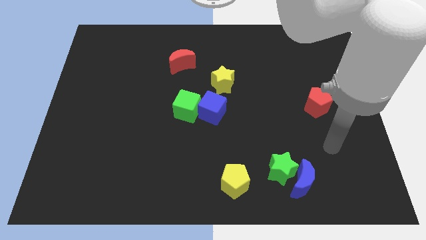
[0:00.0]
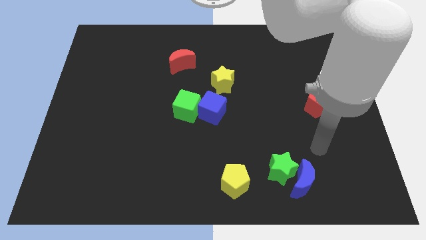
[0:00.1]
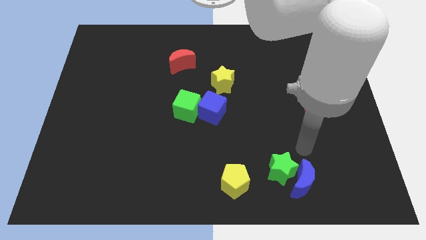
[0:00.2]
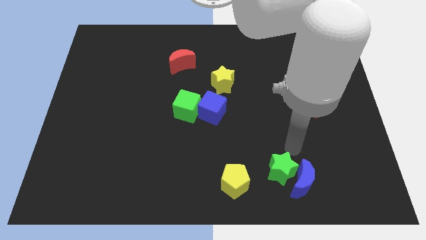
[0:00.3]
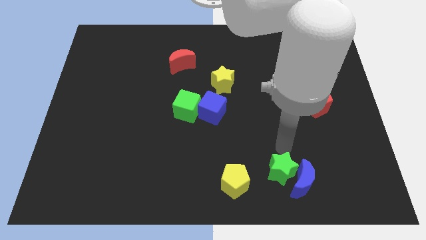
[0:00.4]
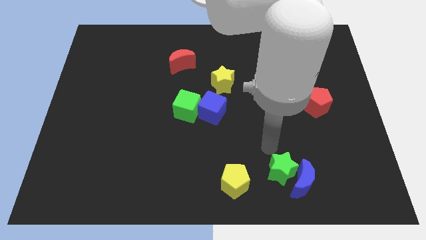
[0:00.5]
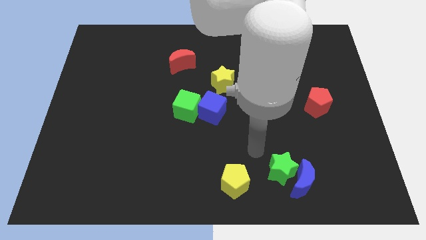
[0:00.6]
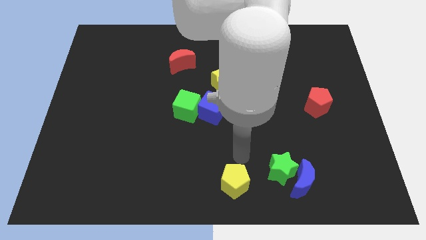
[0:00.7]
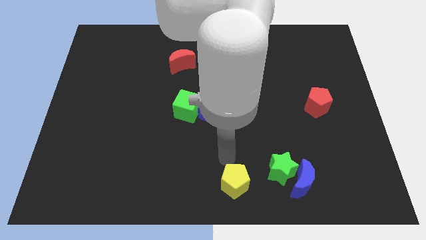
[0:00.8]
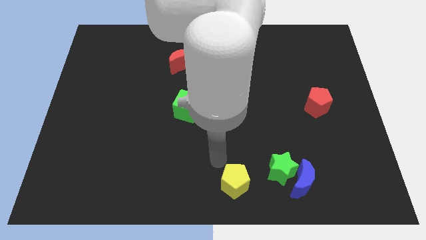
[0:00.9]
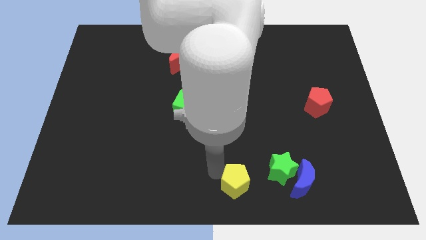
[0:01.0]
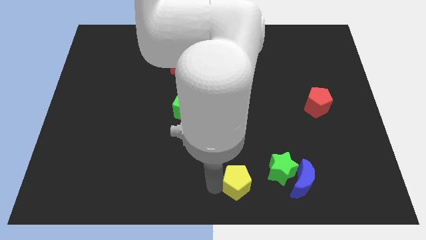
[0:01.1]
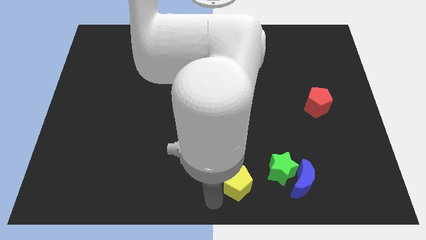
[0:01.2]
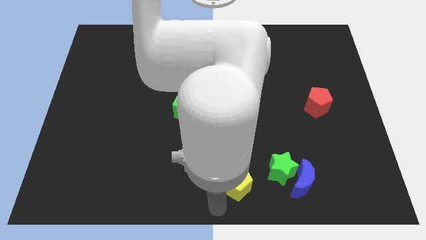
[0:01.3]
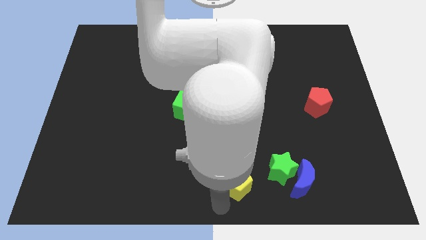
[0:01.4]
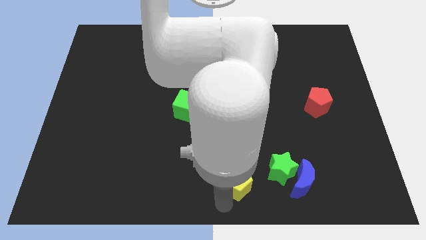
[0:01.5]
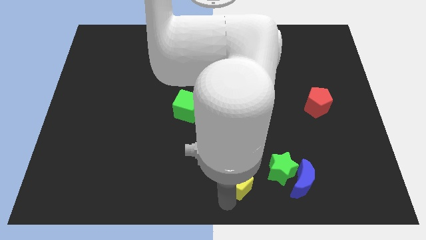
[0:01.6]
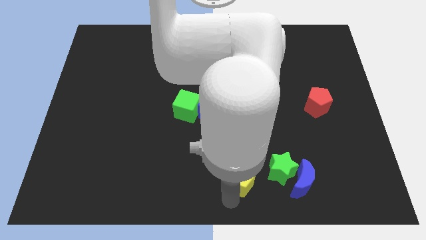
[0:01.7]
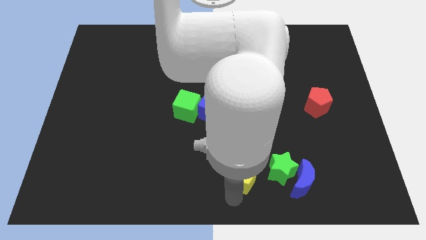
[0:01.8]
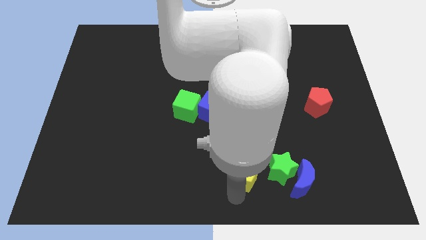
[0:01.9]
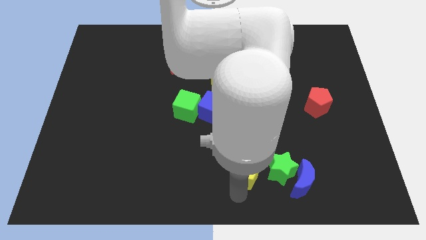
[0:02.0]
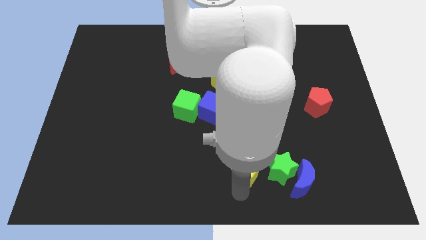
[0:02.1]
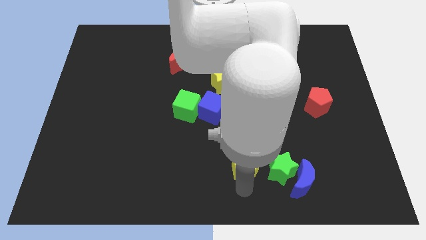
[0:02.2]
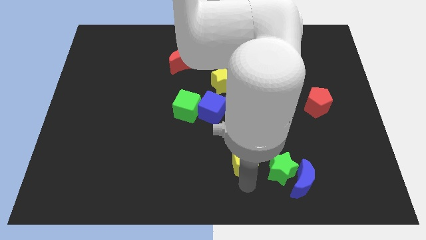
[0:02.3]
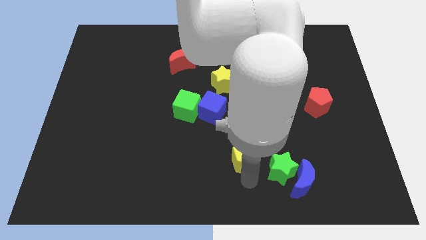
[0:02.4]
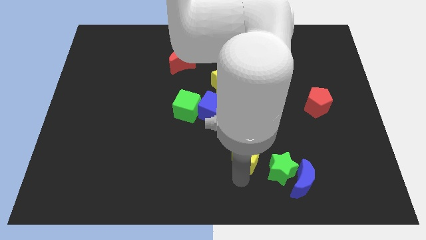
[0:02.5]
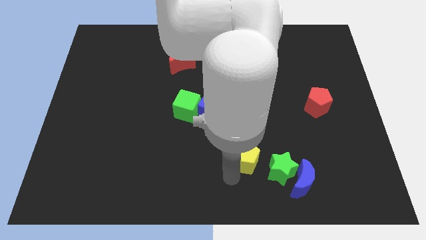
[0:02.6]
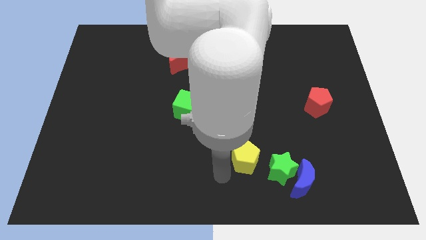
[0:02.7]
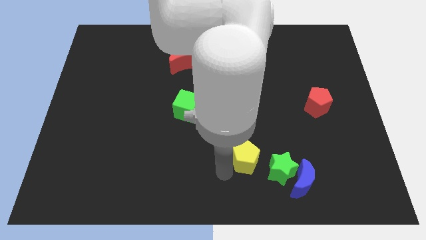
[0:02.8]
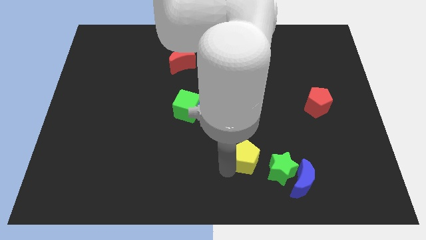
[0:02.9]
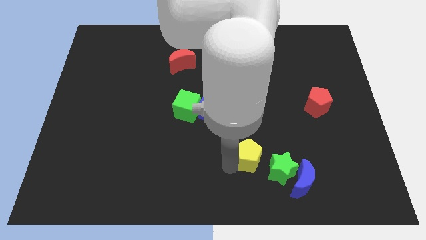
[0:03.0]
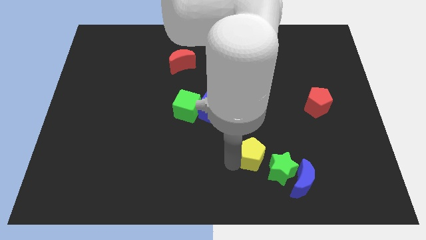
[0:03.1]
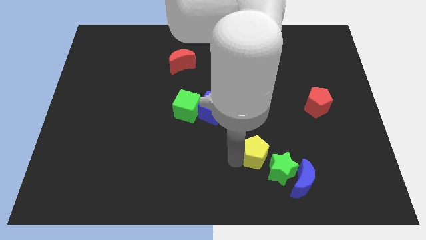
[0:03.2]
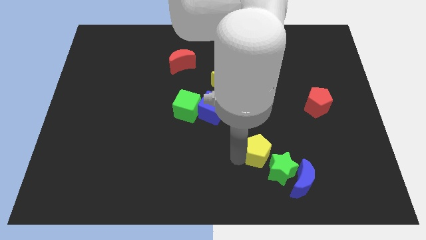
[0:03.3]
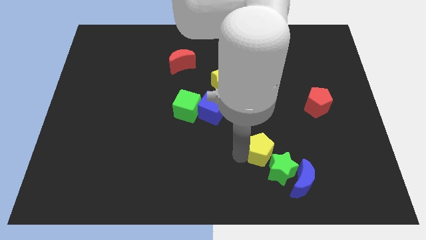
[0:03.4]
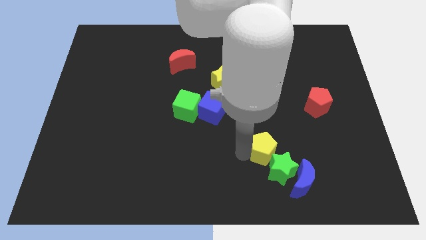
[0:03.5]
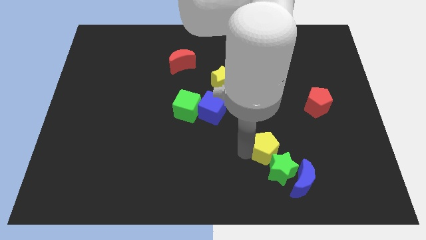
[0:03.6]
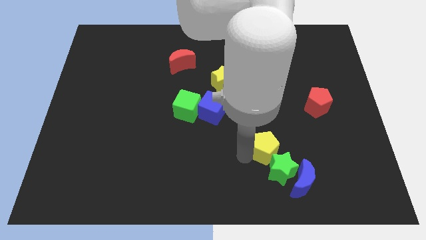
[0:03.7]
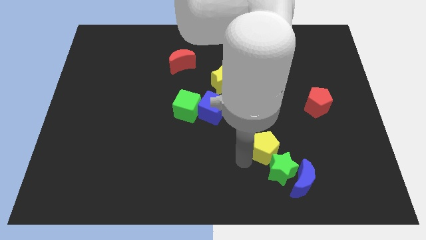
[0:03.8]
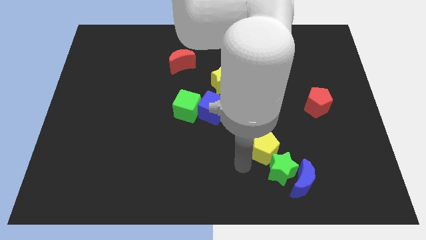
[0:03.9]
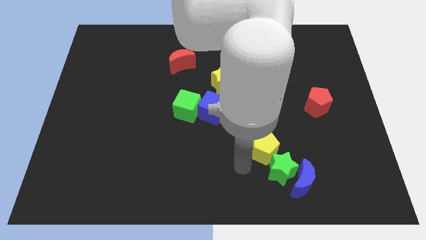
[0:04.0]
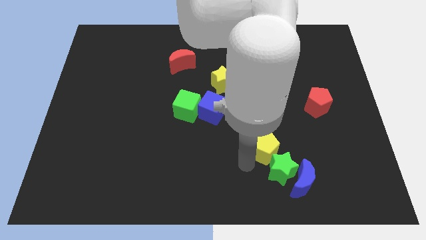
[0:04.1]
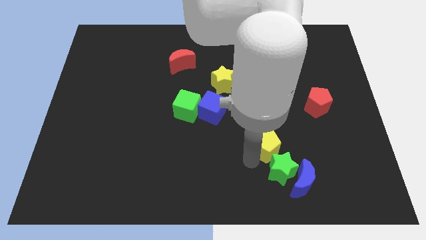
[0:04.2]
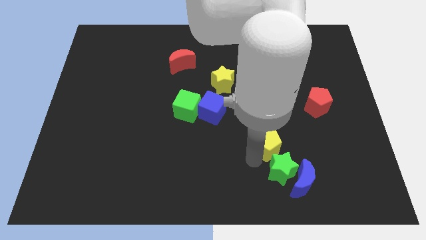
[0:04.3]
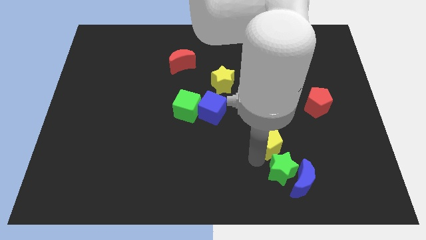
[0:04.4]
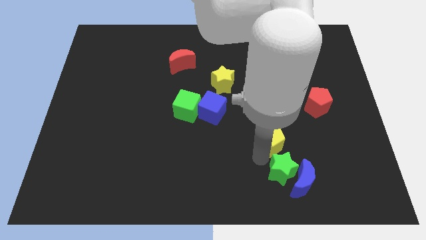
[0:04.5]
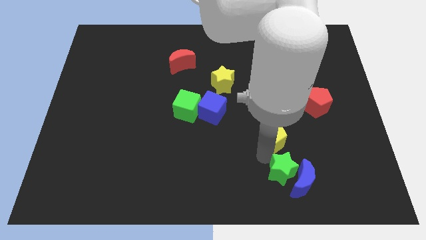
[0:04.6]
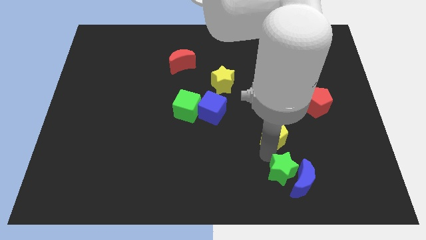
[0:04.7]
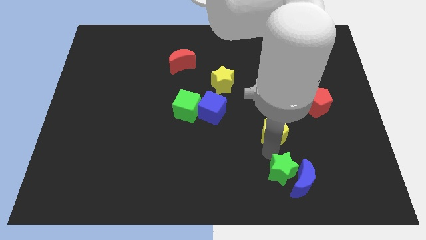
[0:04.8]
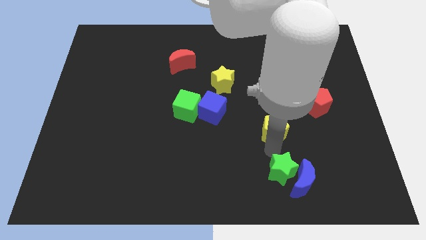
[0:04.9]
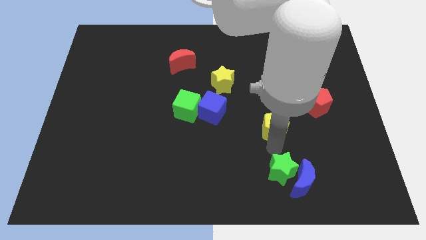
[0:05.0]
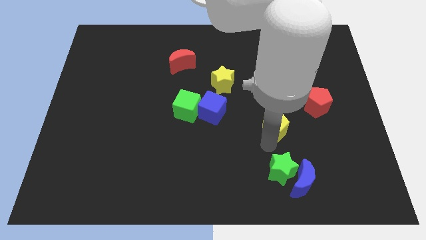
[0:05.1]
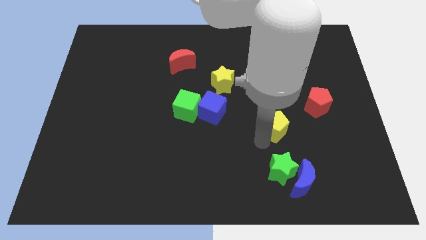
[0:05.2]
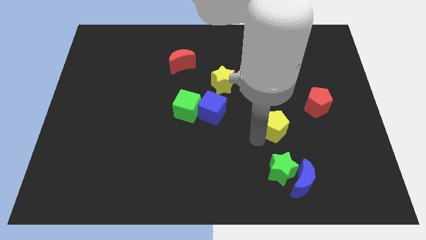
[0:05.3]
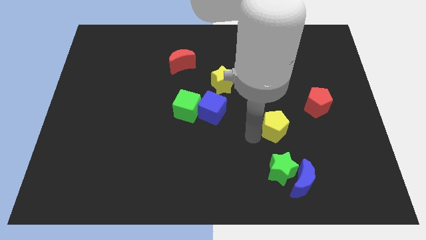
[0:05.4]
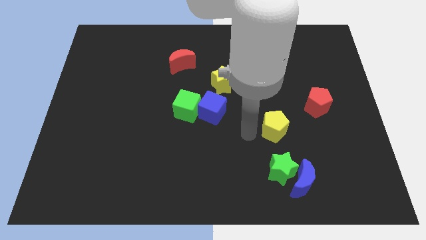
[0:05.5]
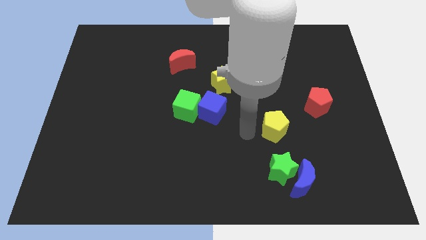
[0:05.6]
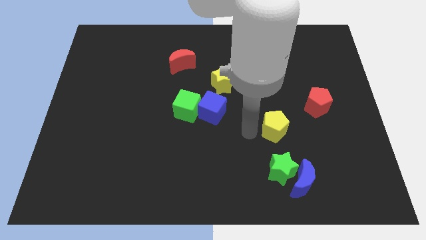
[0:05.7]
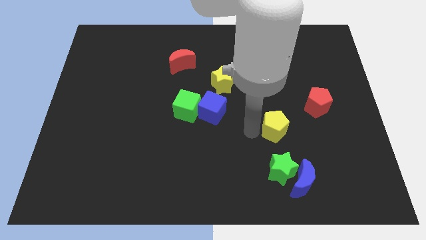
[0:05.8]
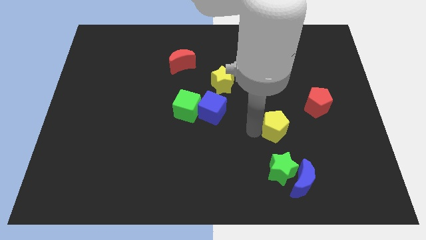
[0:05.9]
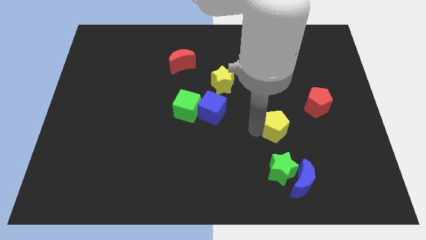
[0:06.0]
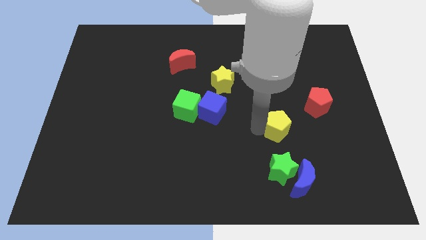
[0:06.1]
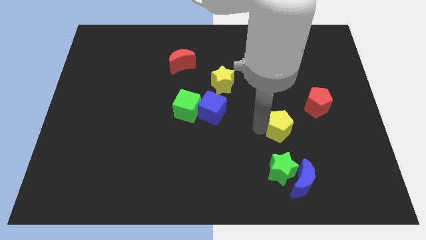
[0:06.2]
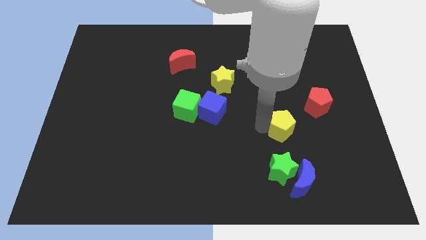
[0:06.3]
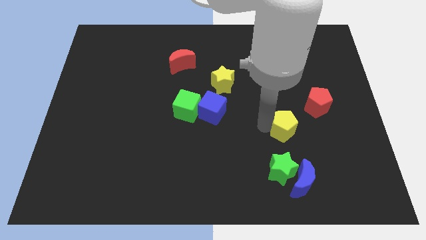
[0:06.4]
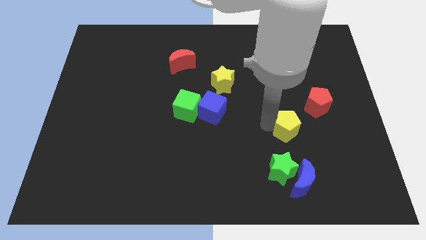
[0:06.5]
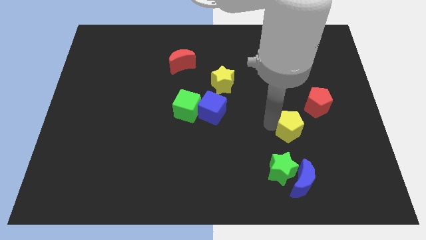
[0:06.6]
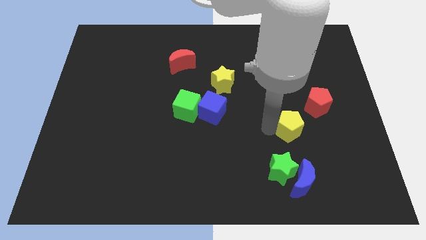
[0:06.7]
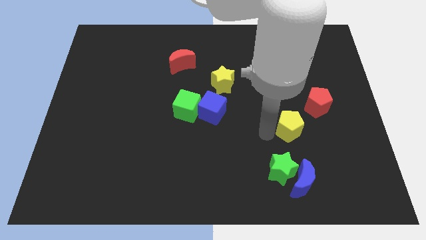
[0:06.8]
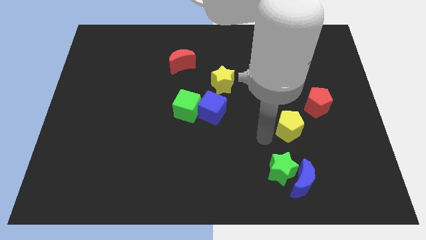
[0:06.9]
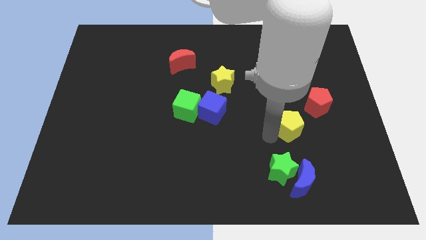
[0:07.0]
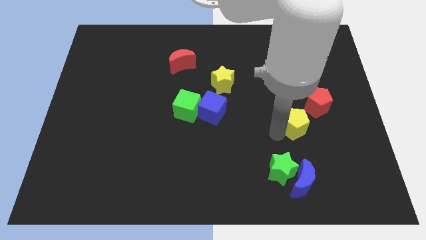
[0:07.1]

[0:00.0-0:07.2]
slide the yellow pentagon diagonally up and to the right

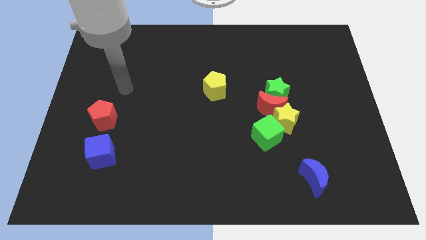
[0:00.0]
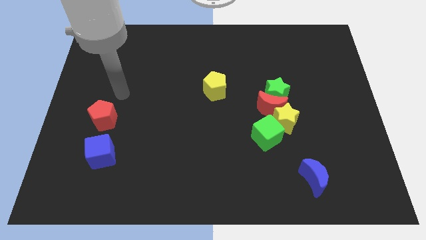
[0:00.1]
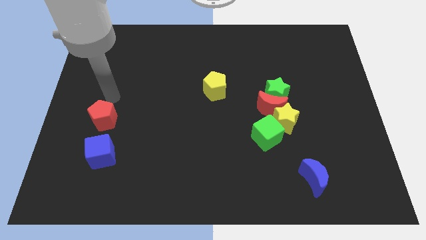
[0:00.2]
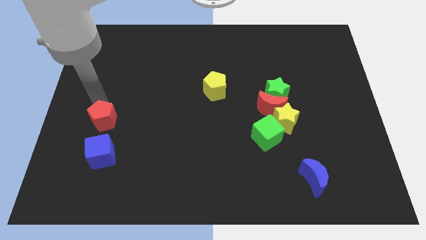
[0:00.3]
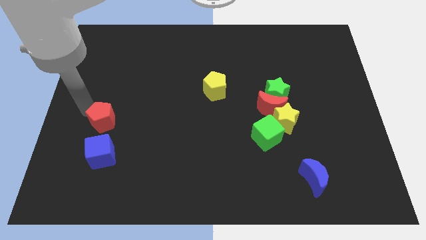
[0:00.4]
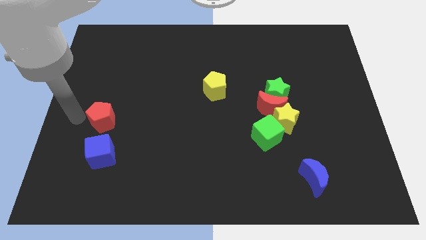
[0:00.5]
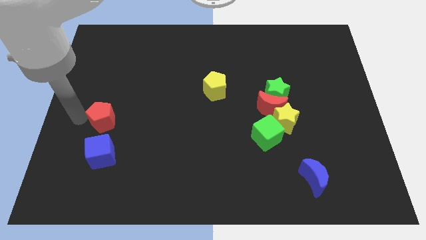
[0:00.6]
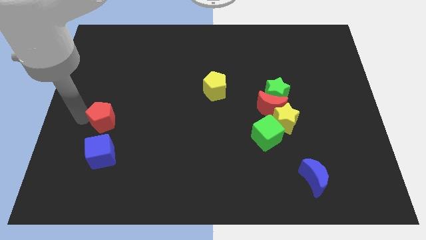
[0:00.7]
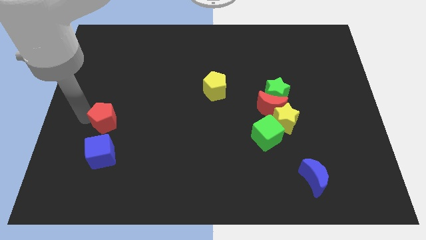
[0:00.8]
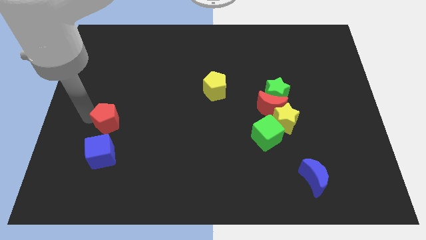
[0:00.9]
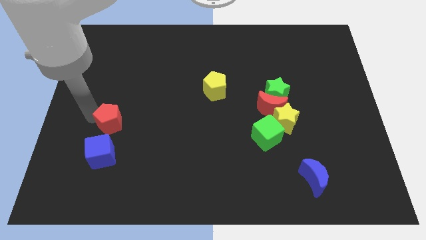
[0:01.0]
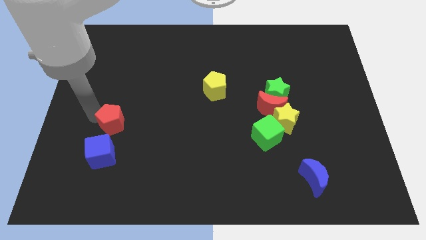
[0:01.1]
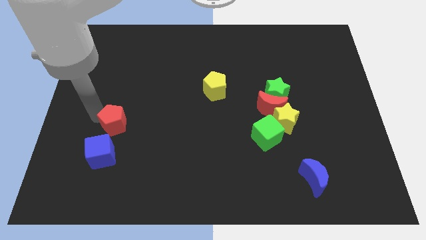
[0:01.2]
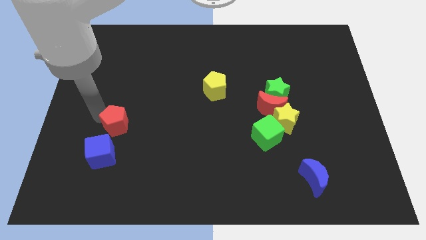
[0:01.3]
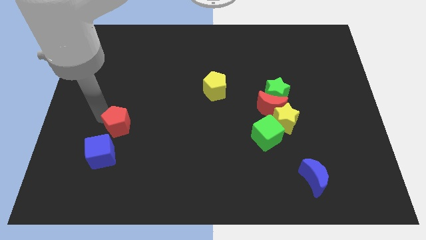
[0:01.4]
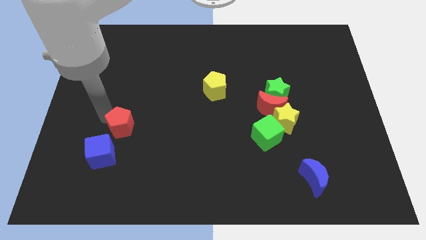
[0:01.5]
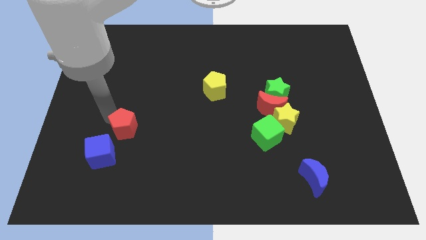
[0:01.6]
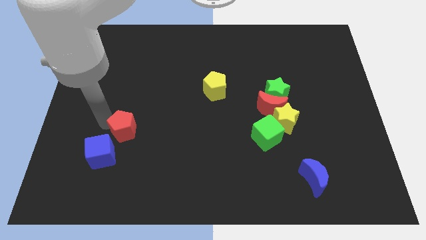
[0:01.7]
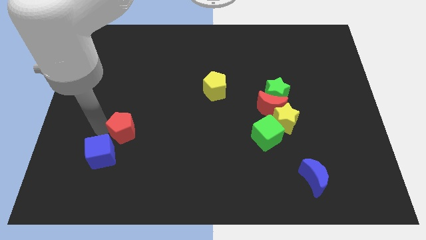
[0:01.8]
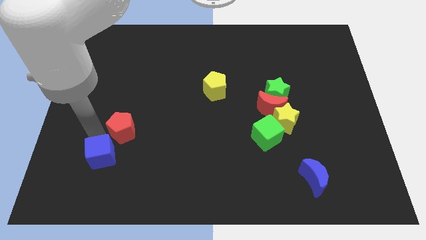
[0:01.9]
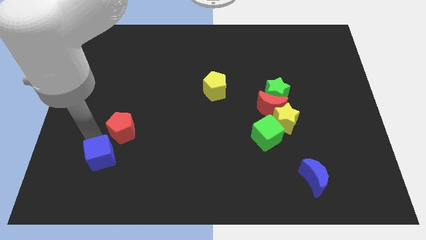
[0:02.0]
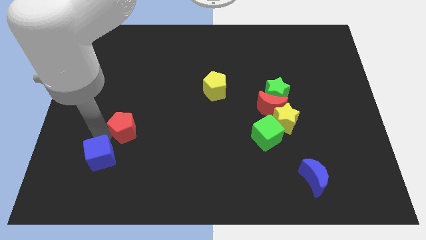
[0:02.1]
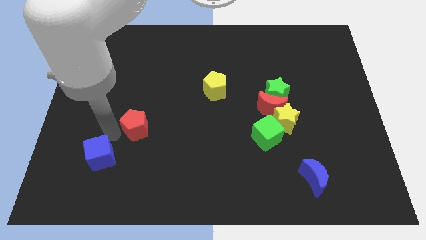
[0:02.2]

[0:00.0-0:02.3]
push the red pentagon right a little
